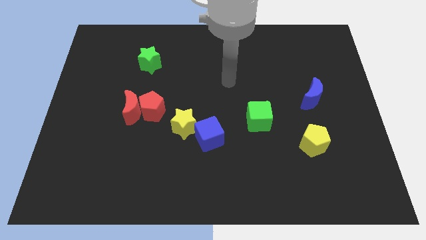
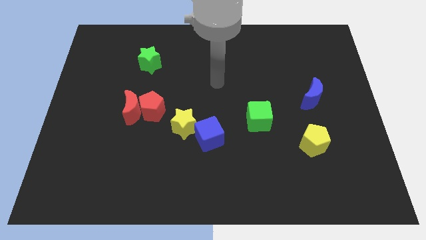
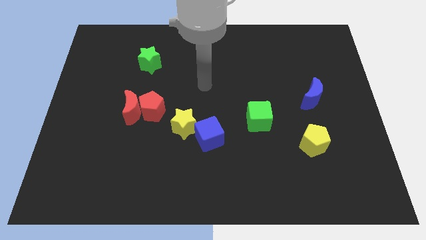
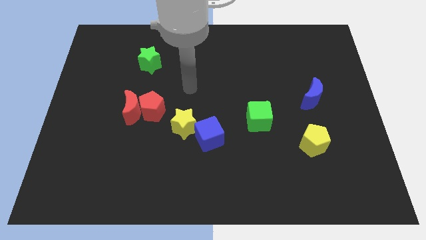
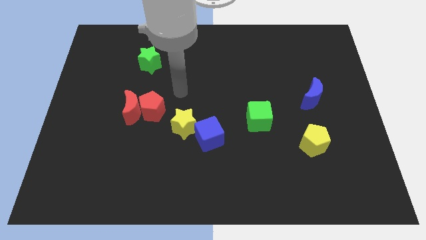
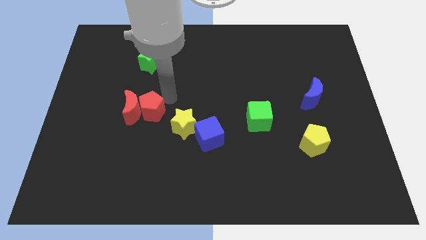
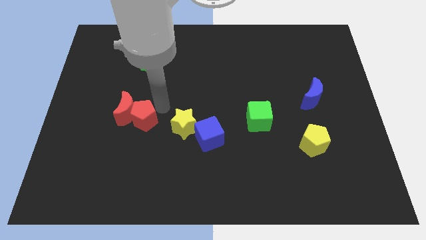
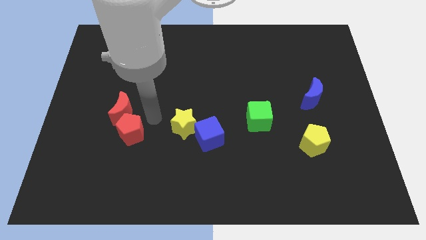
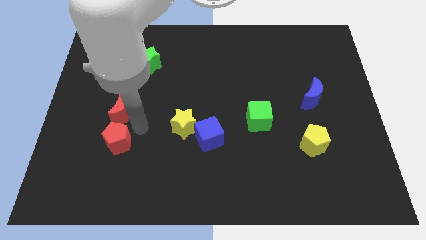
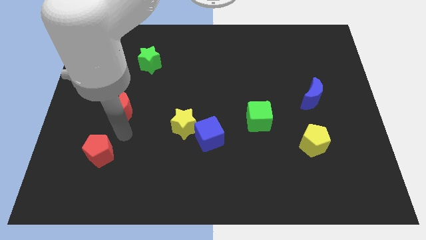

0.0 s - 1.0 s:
separate the red moon from the red pentagon

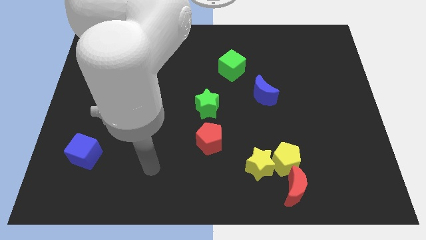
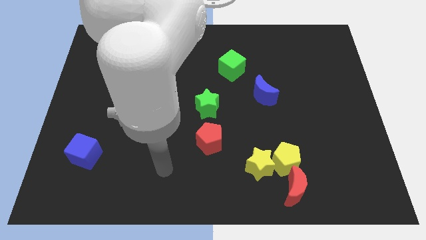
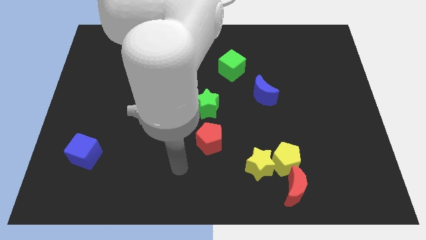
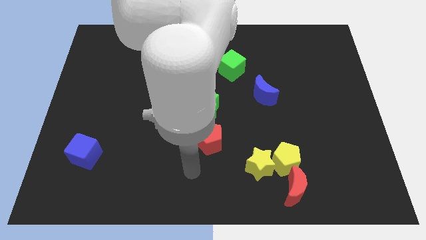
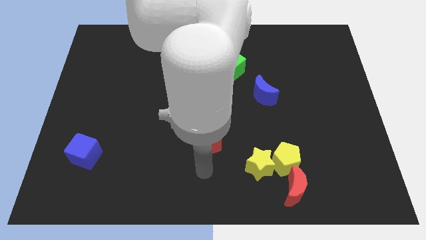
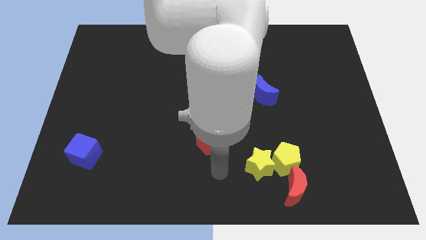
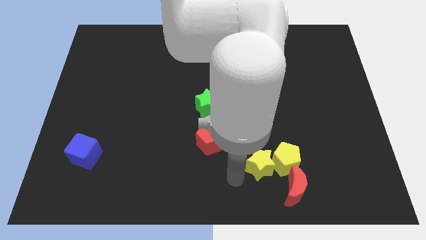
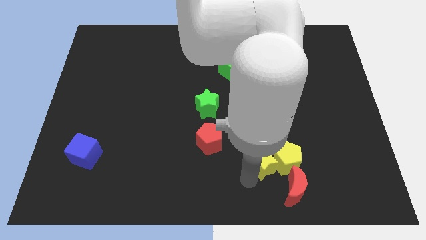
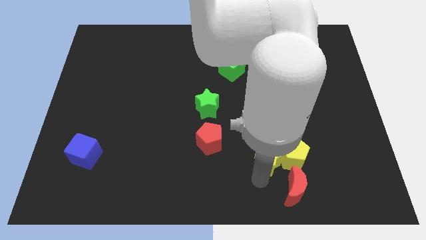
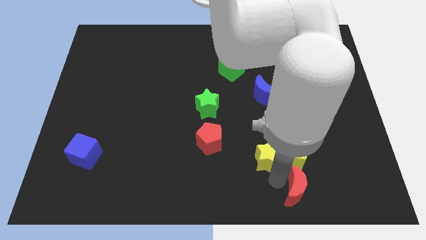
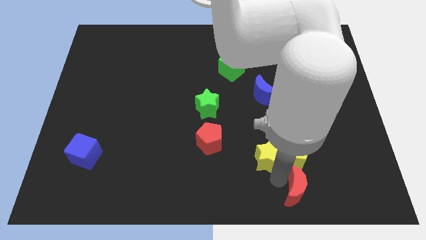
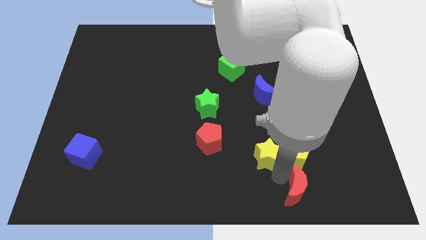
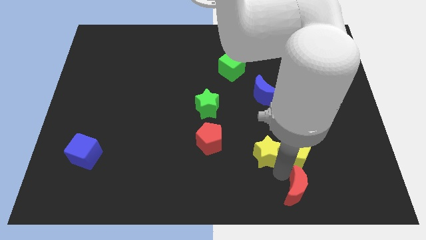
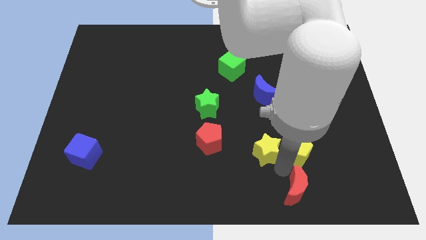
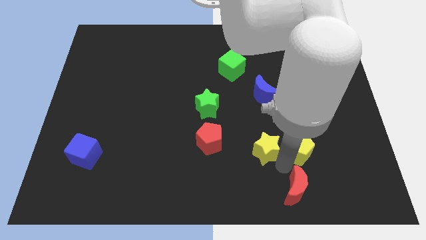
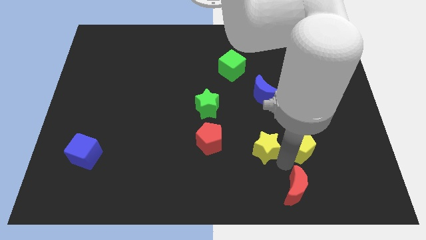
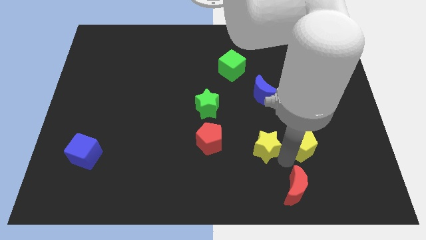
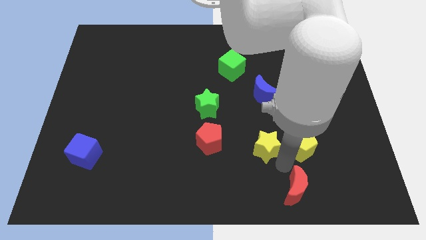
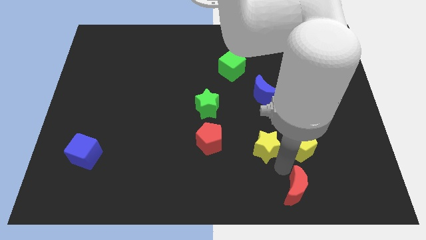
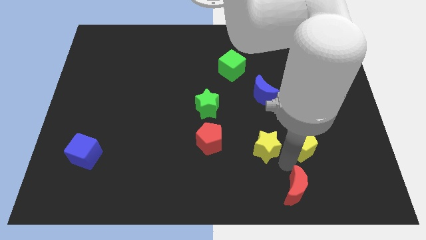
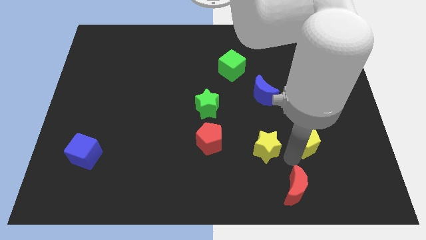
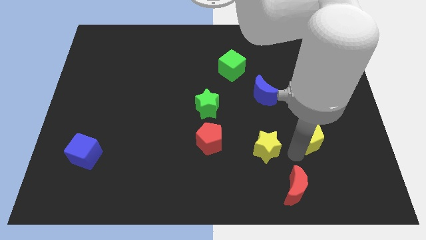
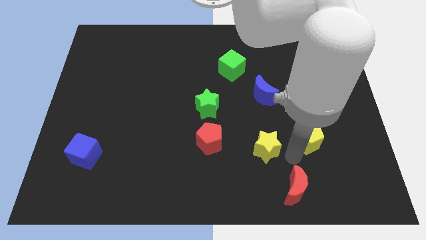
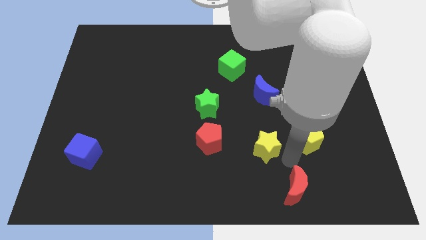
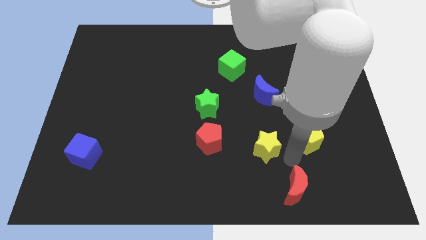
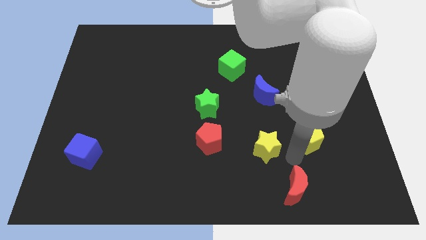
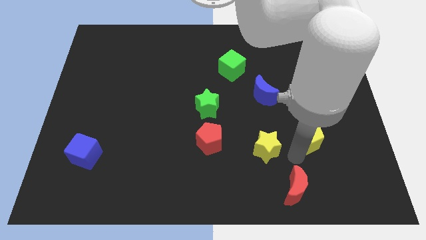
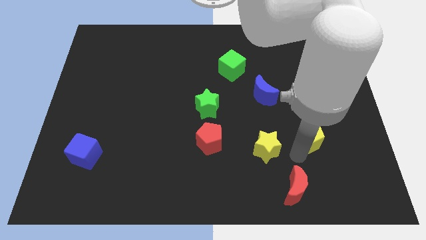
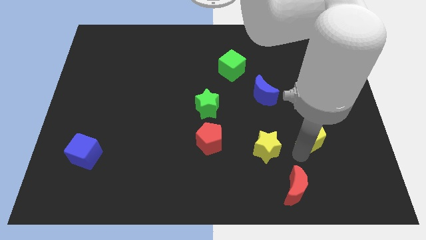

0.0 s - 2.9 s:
pull the yellow pentagon apart from the yellow star and red moon

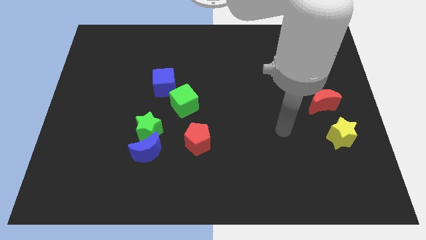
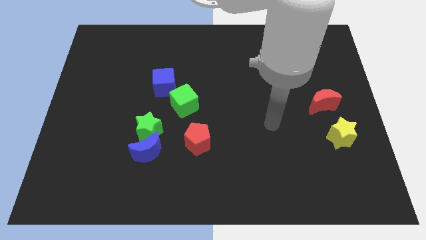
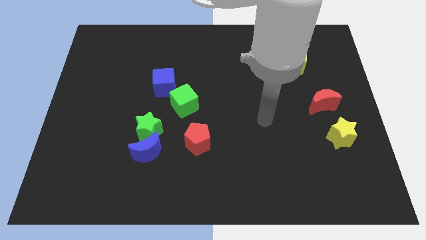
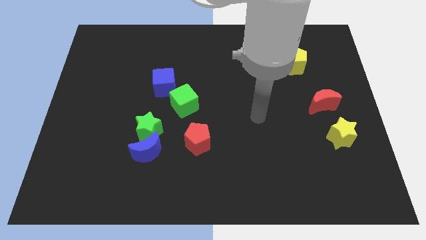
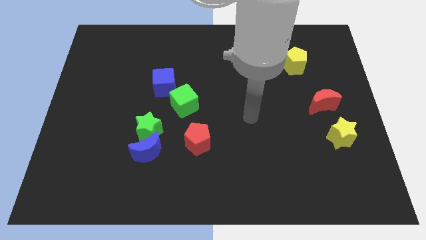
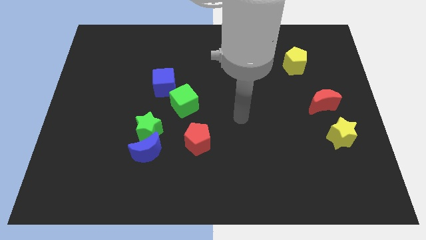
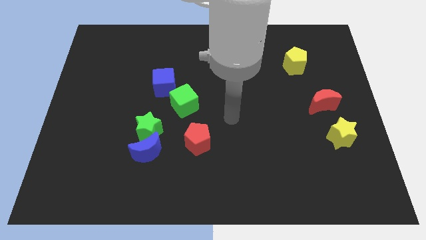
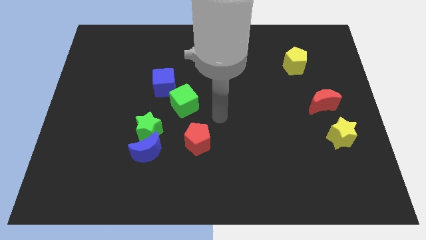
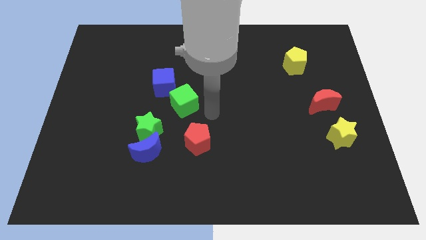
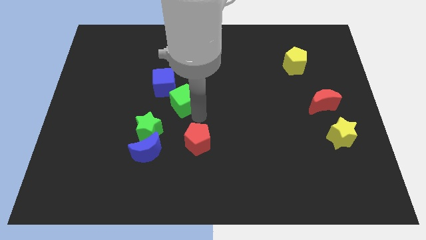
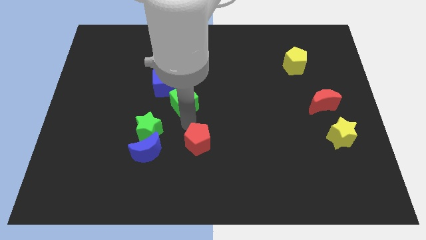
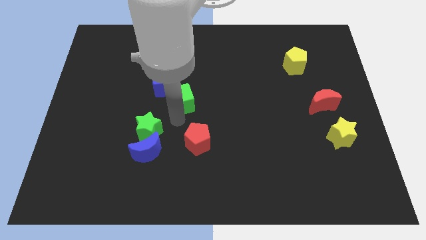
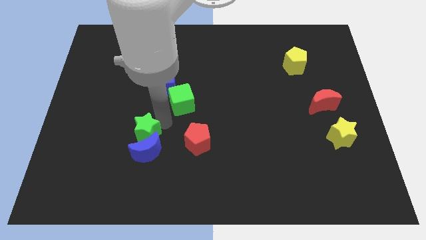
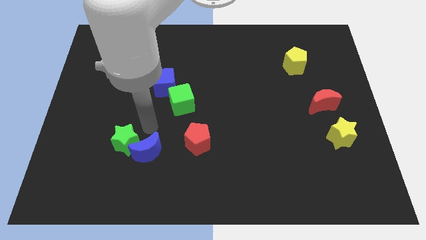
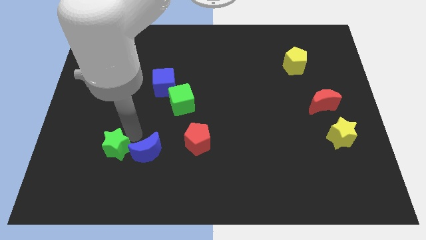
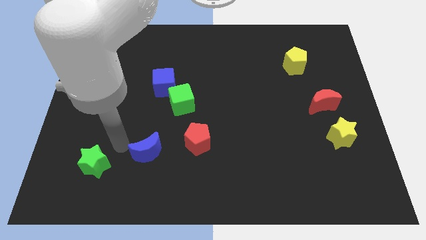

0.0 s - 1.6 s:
separate the blue moon from the green star

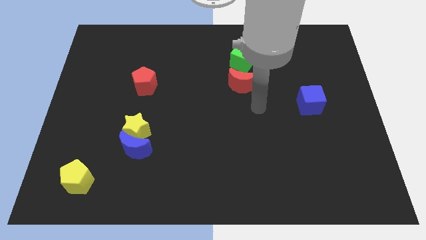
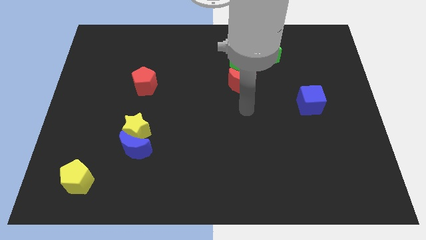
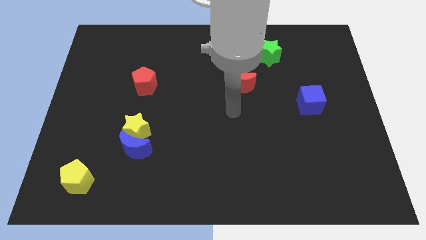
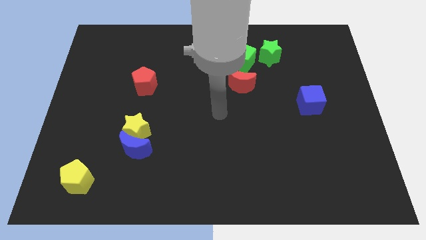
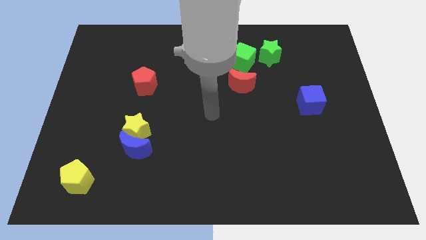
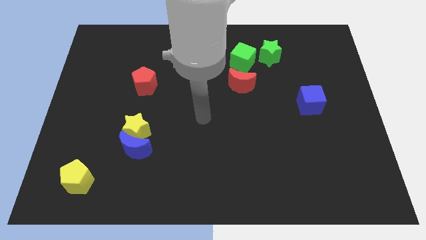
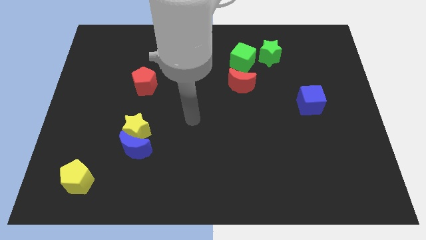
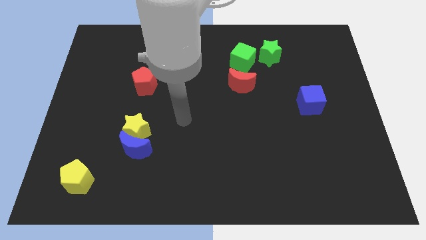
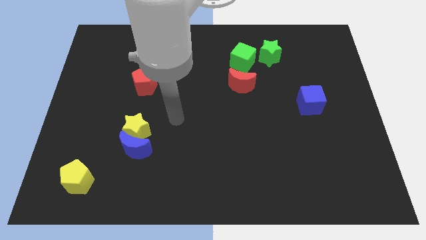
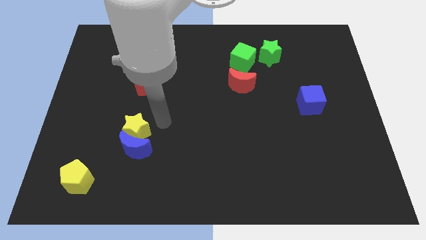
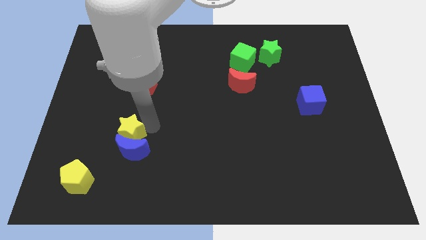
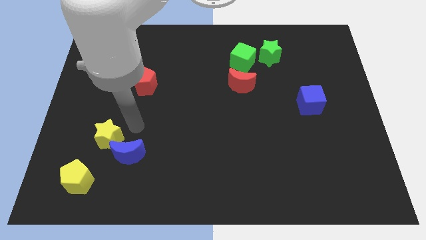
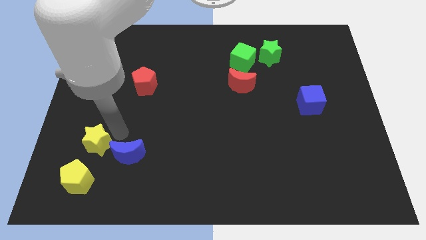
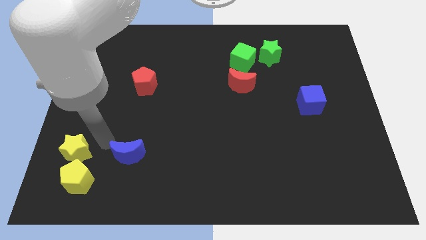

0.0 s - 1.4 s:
pull the blue moon apart from the yellow star

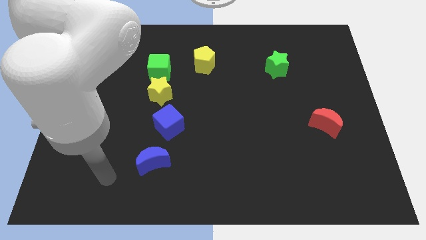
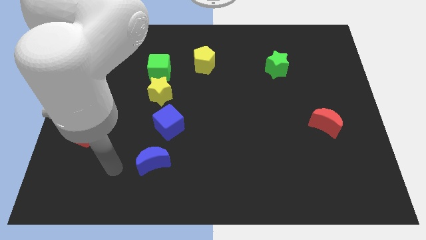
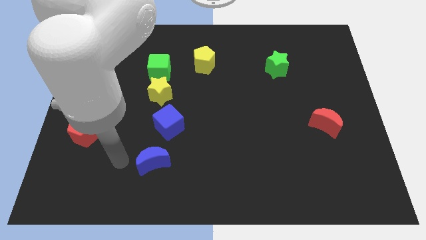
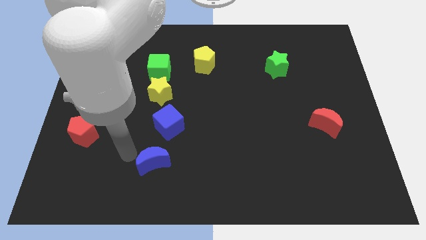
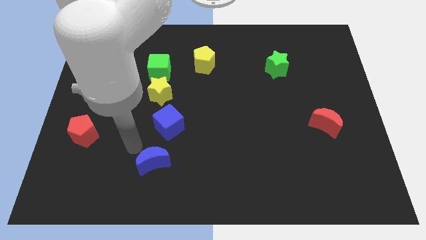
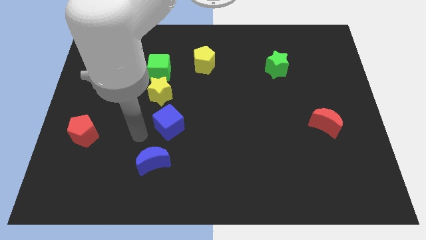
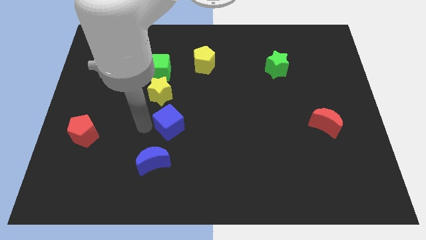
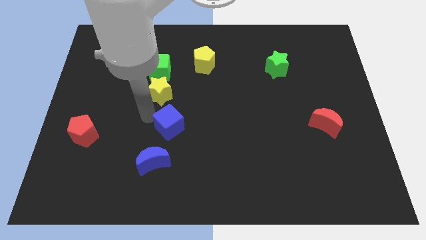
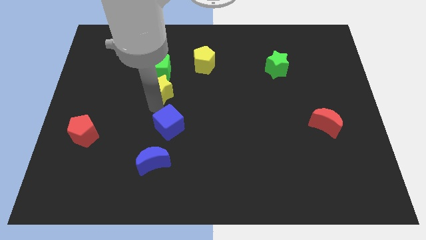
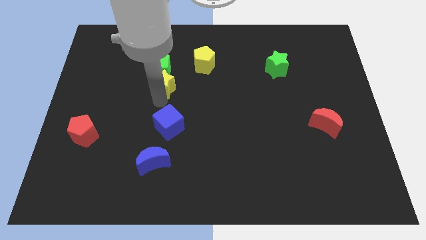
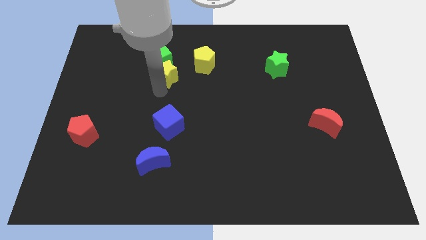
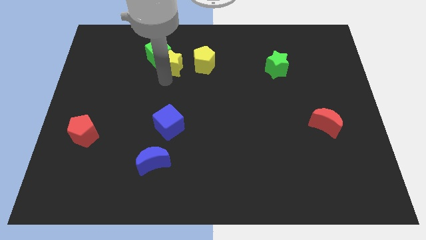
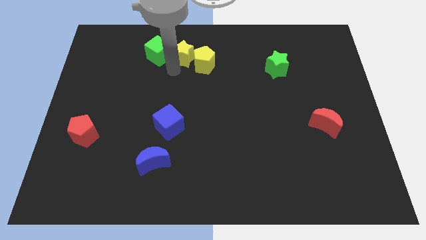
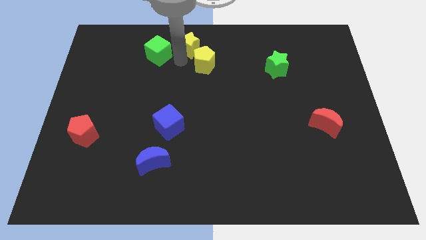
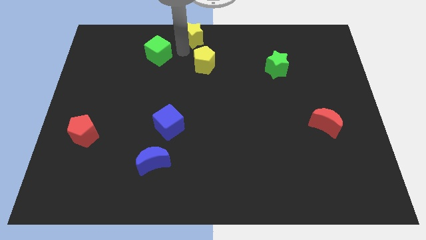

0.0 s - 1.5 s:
pull the green cube apart from the yellow star

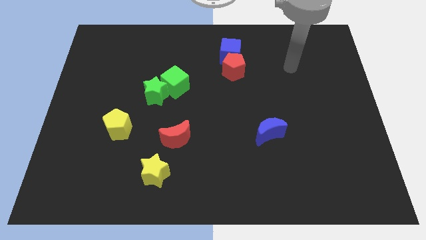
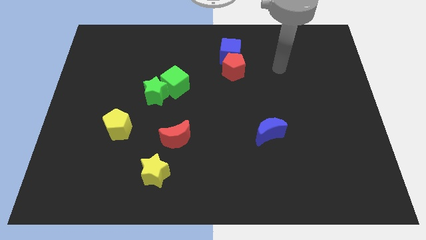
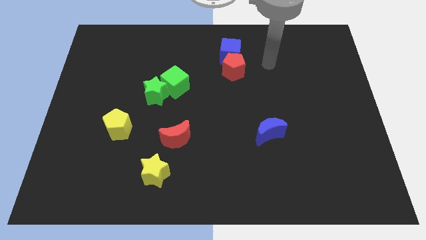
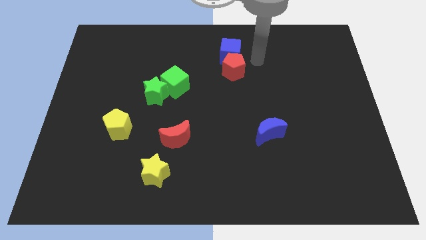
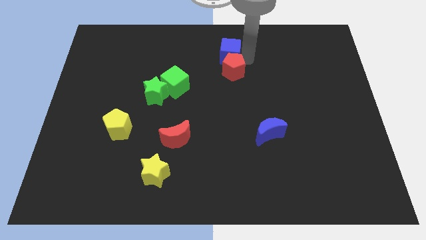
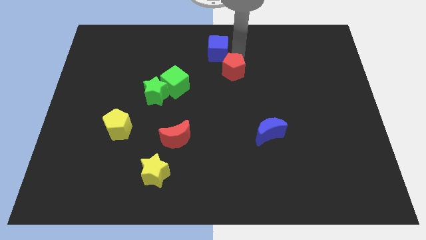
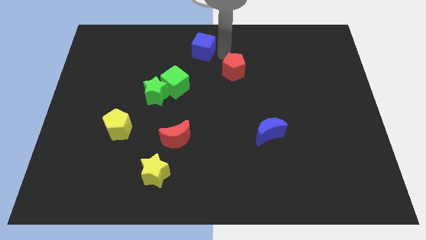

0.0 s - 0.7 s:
pull the red pentagon apart from the blue cube

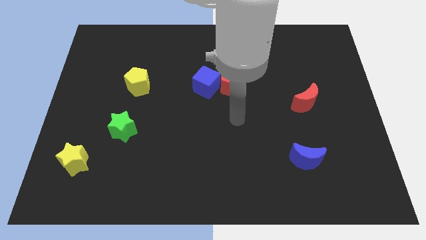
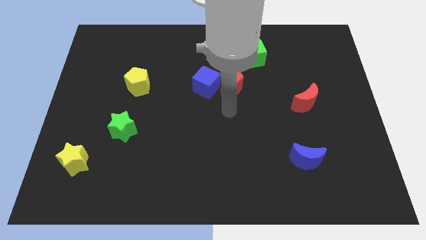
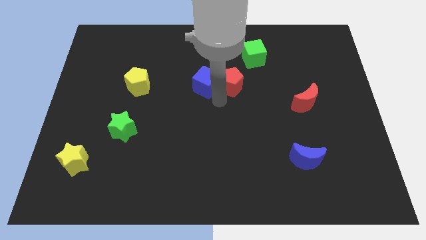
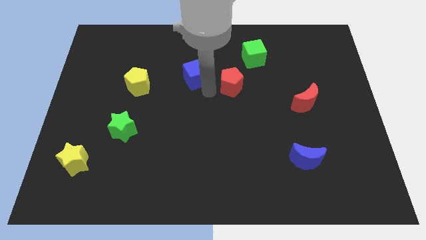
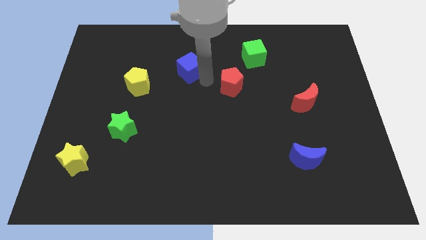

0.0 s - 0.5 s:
move the red pentagon away from the blue cube
